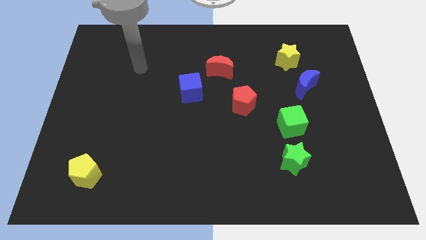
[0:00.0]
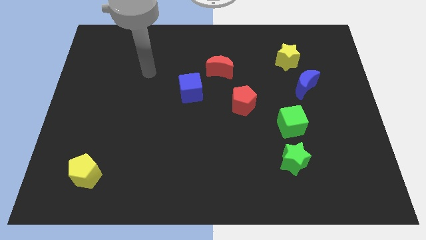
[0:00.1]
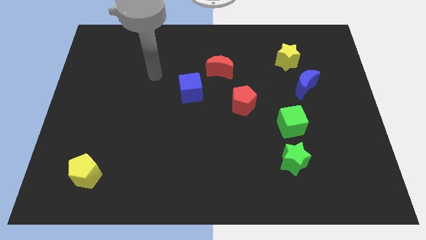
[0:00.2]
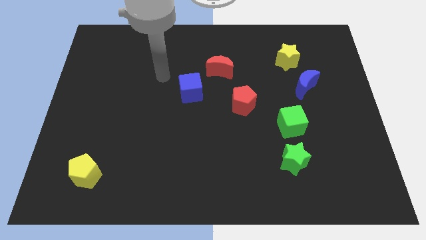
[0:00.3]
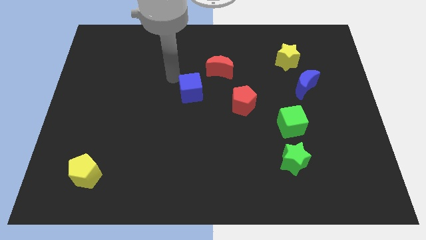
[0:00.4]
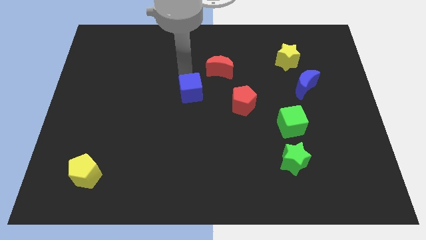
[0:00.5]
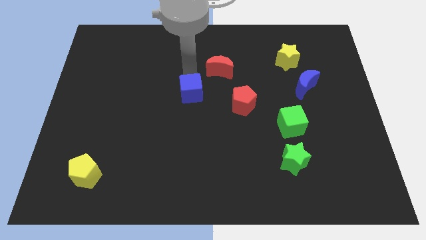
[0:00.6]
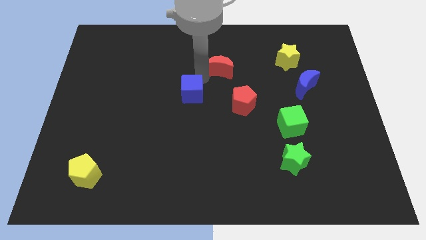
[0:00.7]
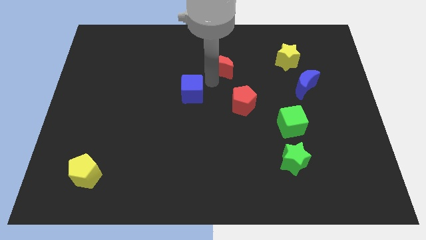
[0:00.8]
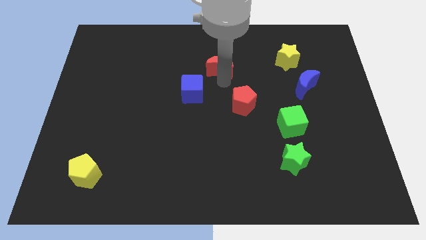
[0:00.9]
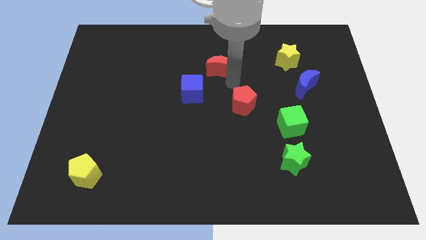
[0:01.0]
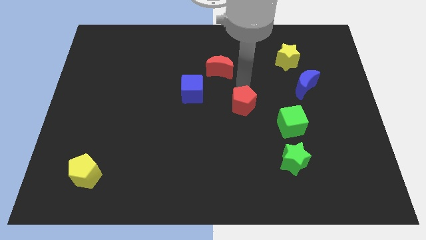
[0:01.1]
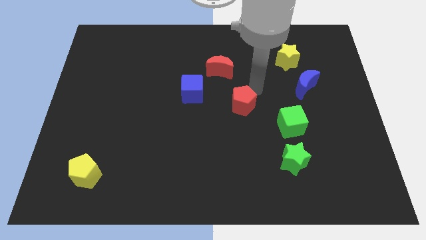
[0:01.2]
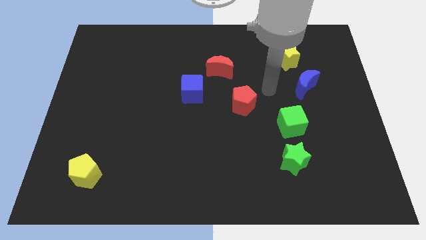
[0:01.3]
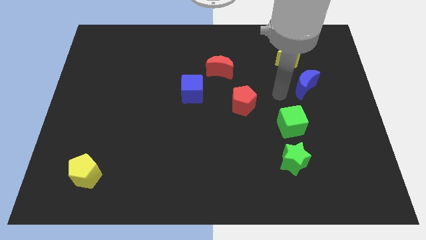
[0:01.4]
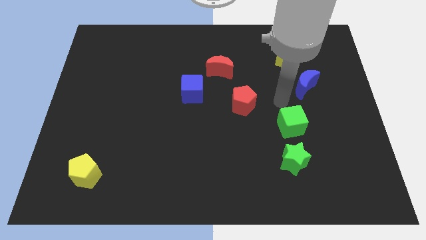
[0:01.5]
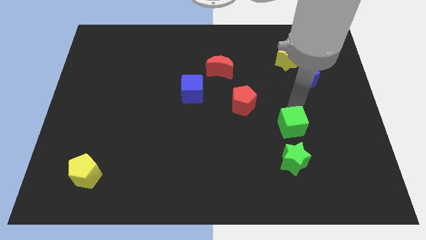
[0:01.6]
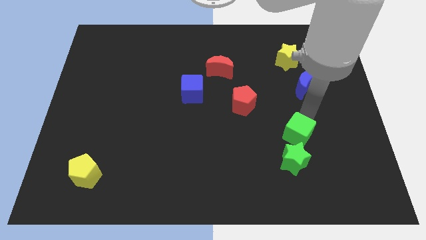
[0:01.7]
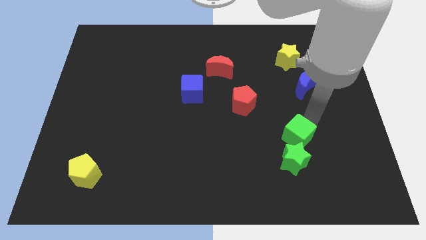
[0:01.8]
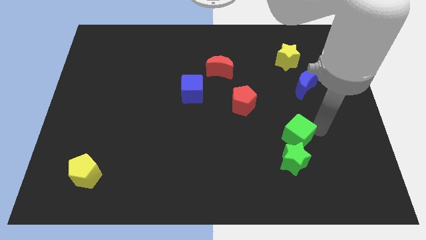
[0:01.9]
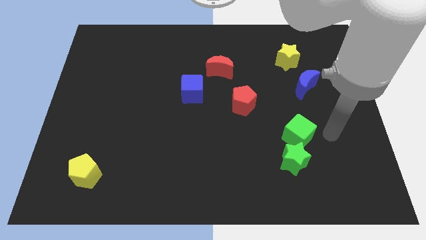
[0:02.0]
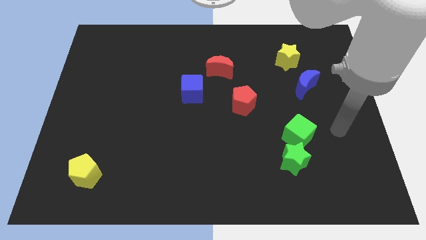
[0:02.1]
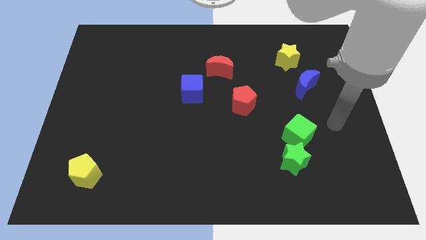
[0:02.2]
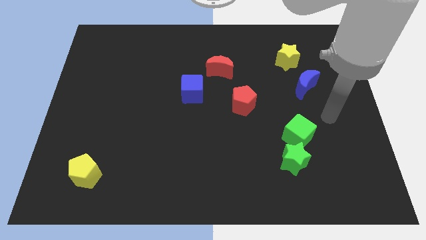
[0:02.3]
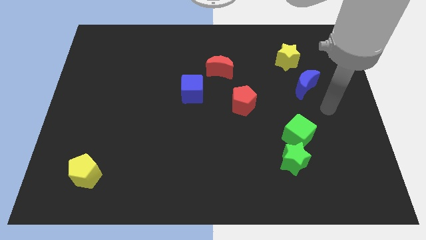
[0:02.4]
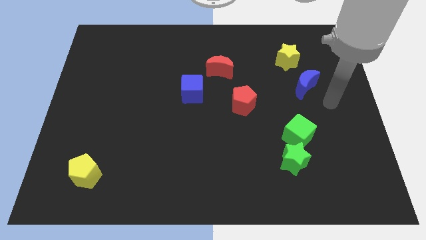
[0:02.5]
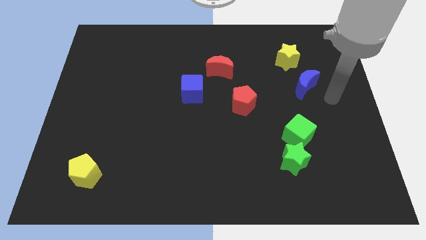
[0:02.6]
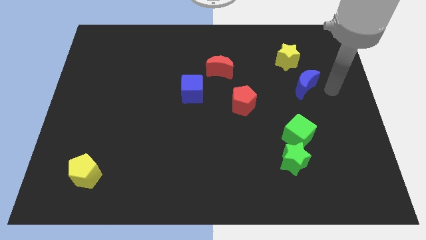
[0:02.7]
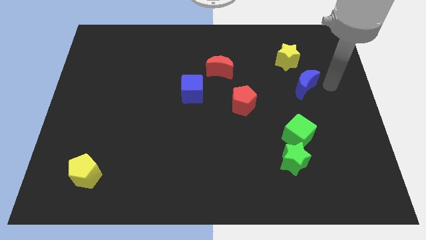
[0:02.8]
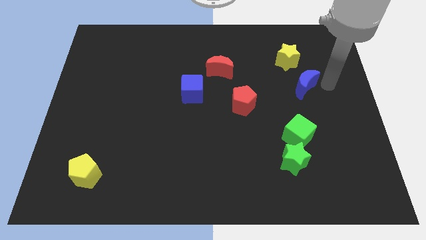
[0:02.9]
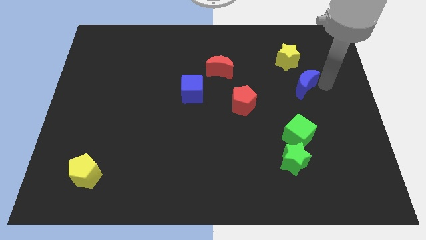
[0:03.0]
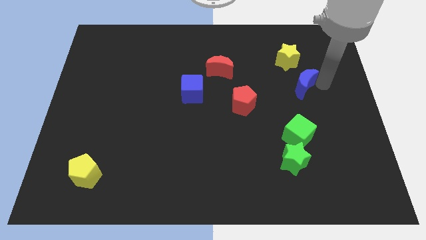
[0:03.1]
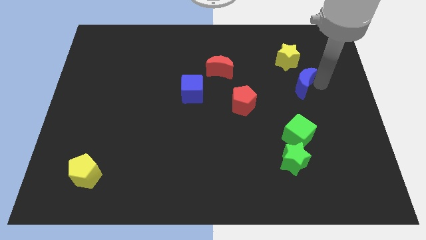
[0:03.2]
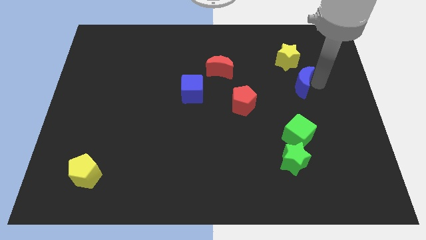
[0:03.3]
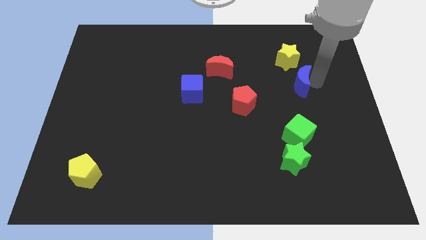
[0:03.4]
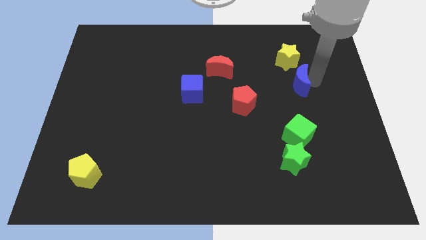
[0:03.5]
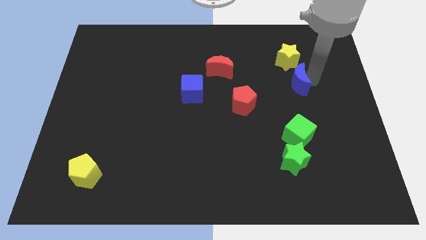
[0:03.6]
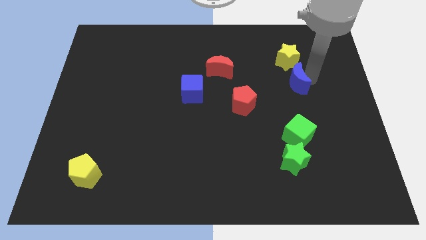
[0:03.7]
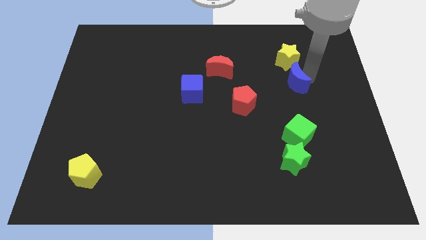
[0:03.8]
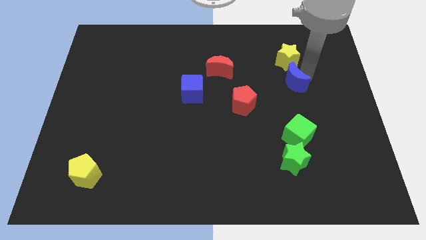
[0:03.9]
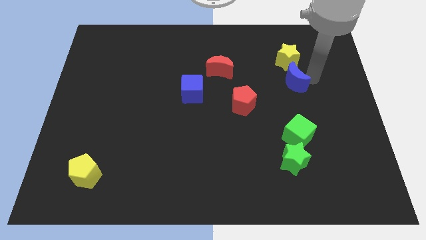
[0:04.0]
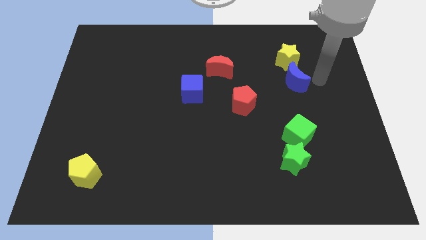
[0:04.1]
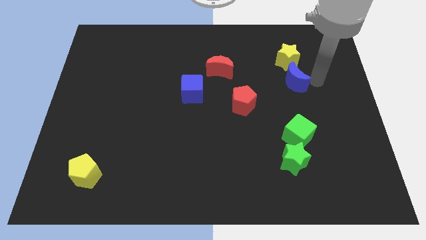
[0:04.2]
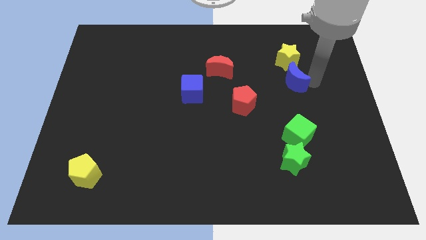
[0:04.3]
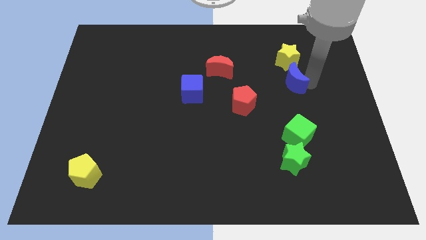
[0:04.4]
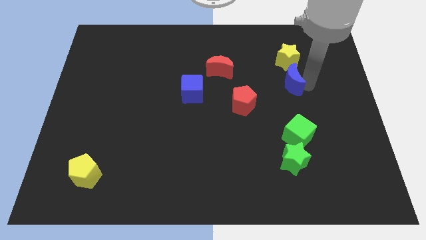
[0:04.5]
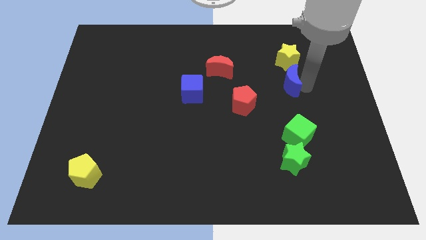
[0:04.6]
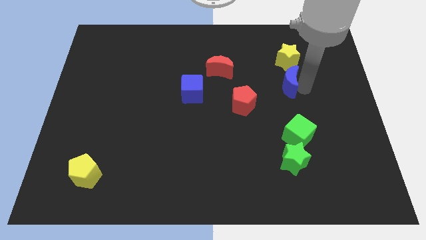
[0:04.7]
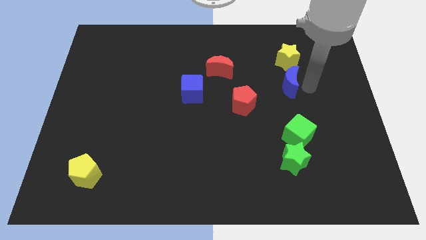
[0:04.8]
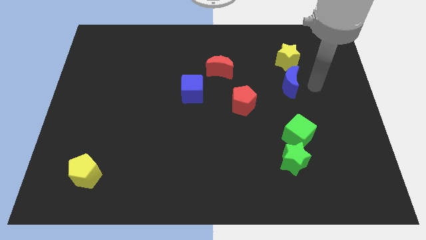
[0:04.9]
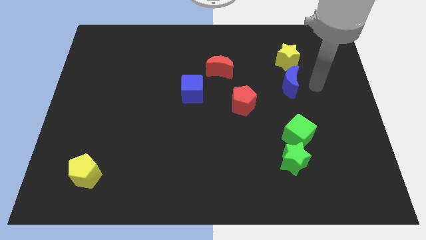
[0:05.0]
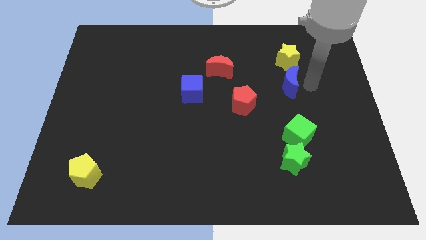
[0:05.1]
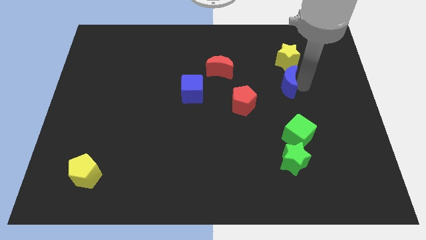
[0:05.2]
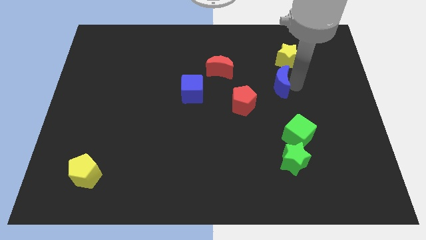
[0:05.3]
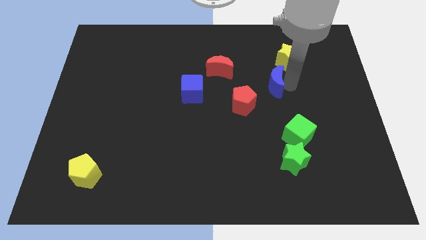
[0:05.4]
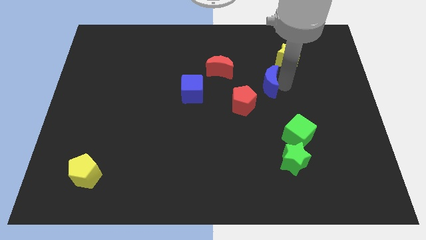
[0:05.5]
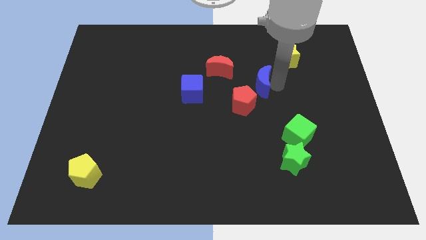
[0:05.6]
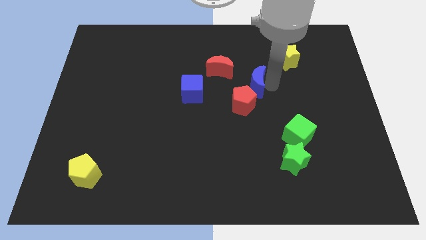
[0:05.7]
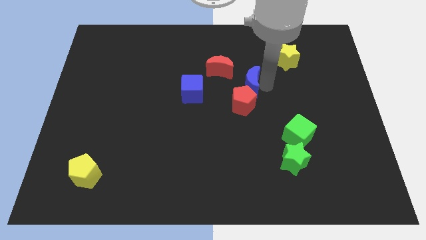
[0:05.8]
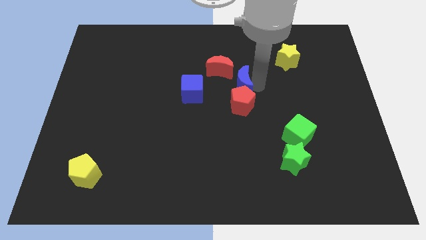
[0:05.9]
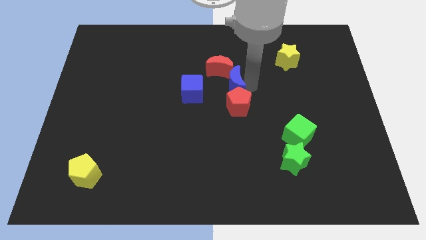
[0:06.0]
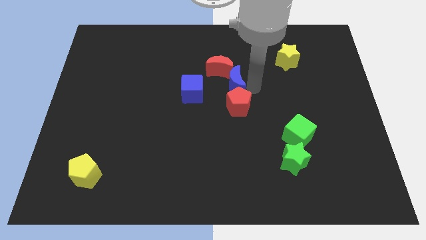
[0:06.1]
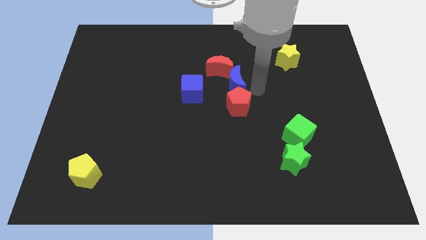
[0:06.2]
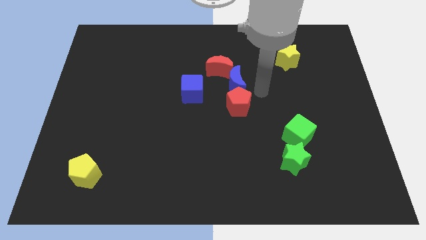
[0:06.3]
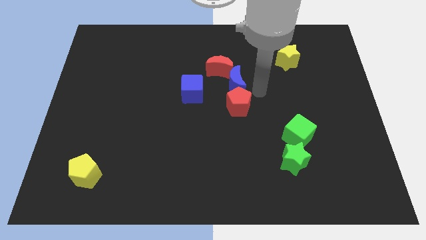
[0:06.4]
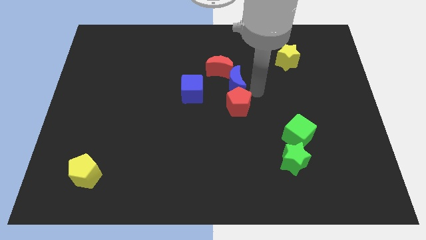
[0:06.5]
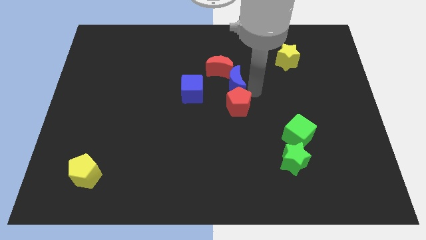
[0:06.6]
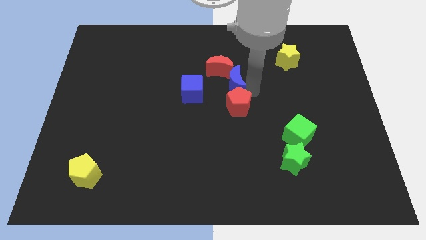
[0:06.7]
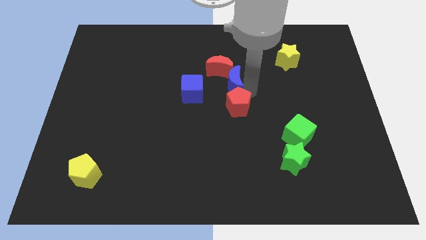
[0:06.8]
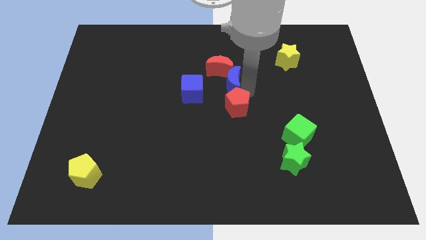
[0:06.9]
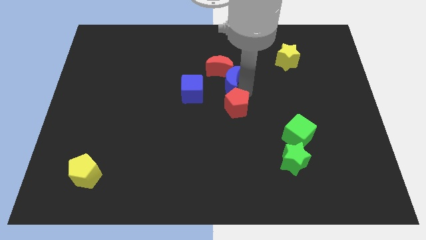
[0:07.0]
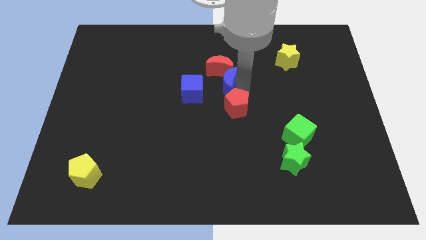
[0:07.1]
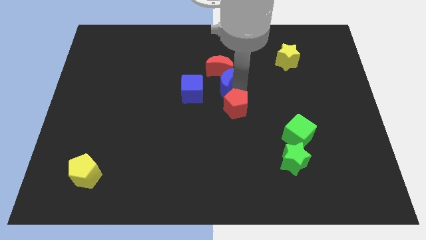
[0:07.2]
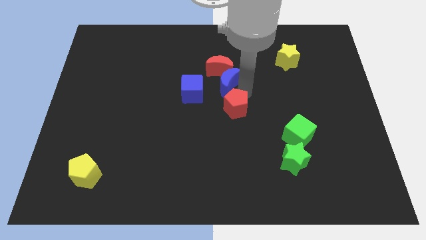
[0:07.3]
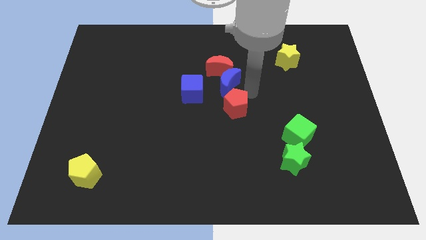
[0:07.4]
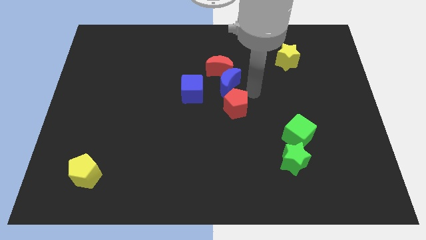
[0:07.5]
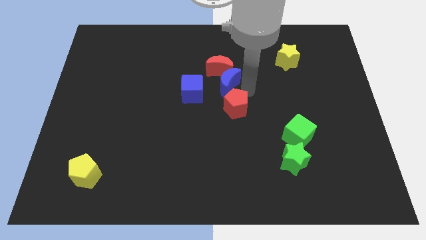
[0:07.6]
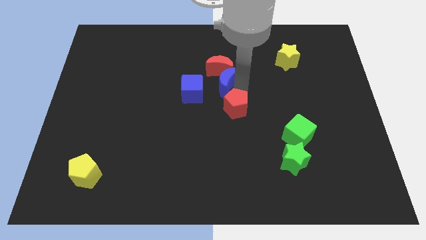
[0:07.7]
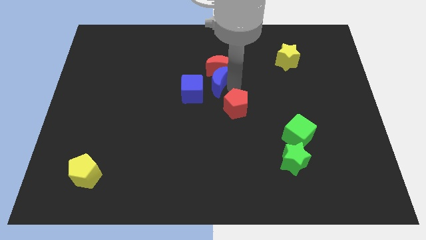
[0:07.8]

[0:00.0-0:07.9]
move the blue moon left
